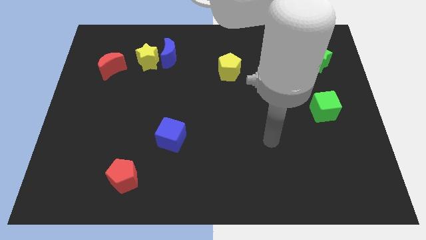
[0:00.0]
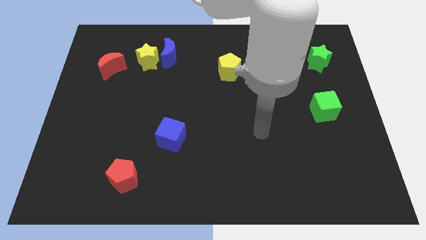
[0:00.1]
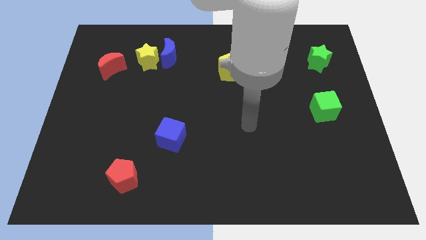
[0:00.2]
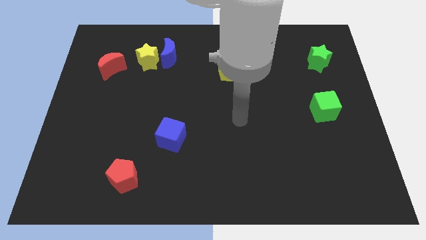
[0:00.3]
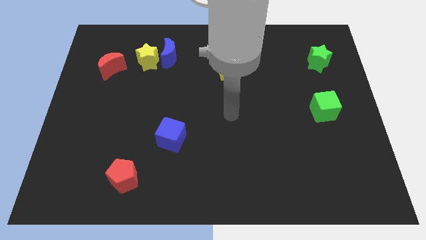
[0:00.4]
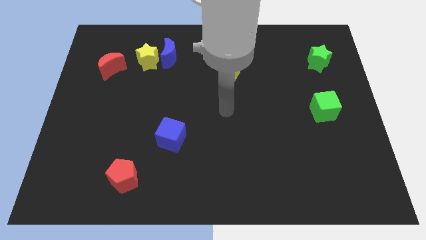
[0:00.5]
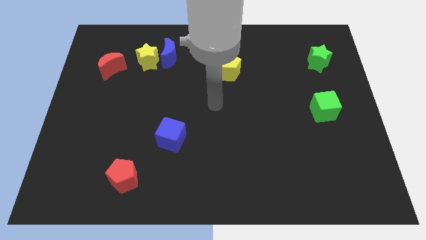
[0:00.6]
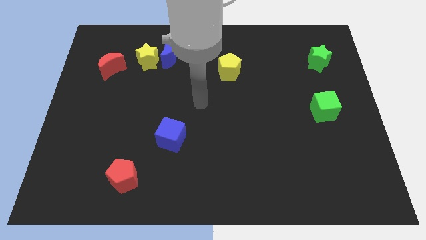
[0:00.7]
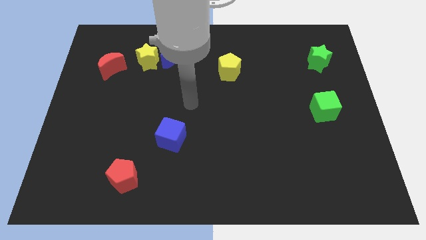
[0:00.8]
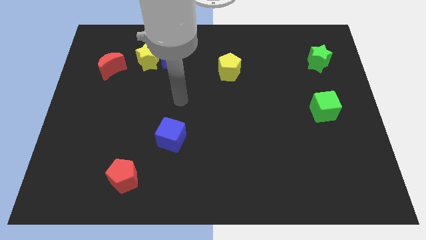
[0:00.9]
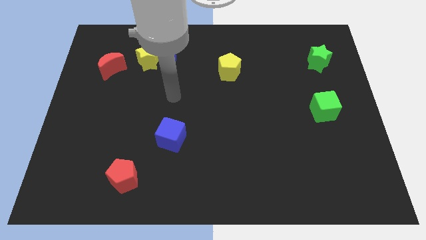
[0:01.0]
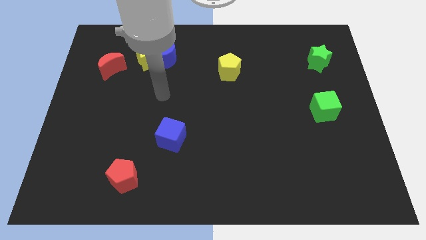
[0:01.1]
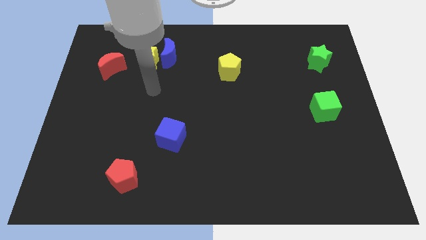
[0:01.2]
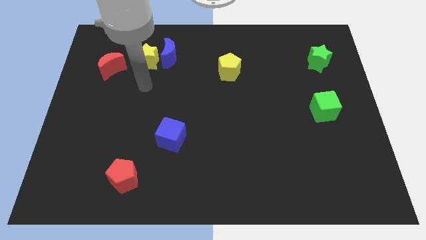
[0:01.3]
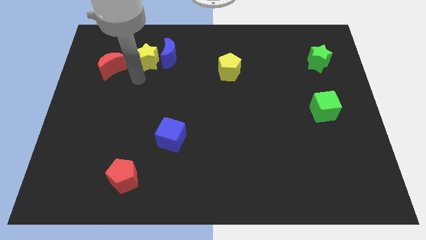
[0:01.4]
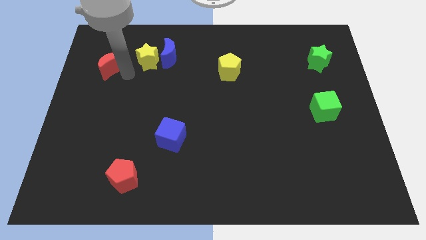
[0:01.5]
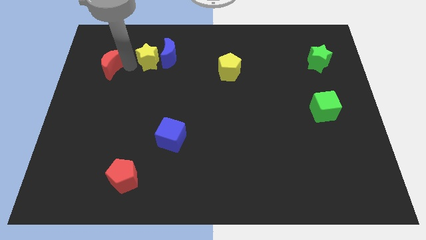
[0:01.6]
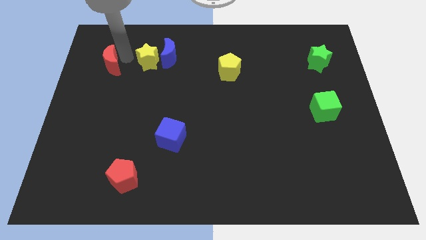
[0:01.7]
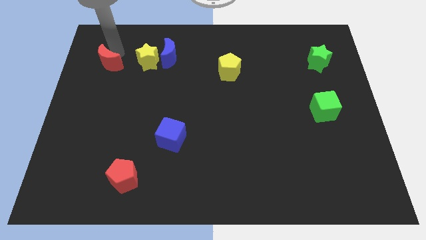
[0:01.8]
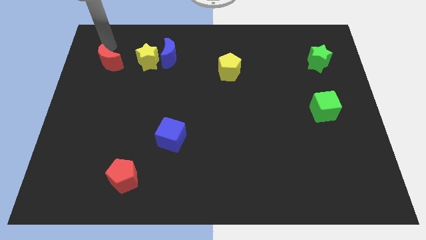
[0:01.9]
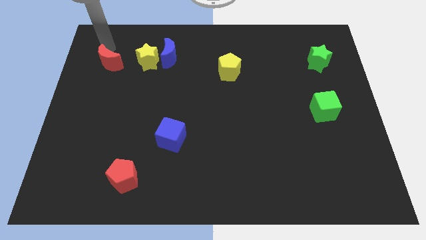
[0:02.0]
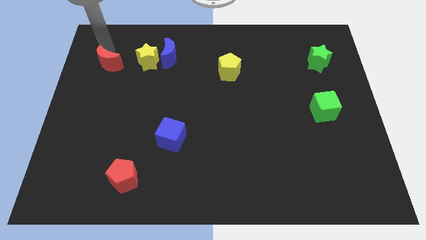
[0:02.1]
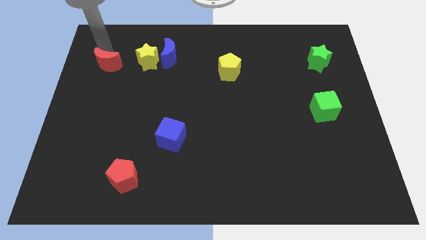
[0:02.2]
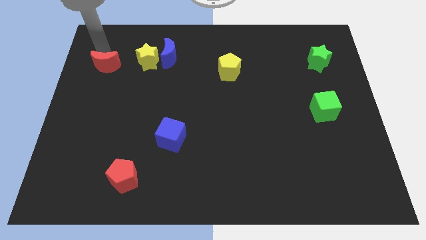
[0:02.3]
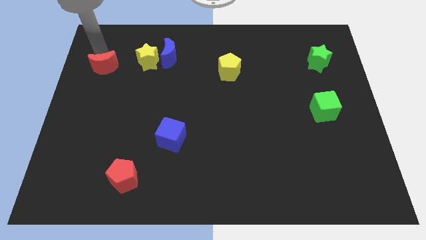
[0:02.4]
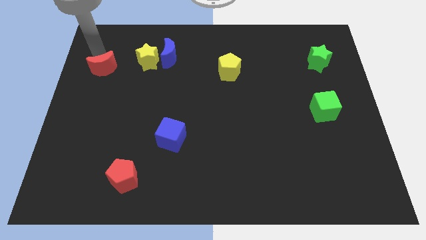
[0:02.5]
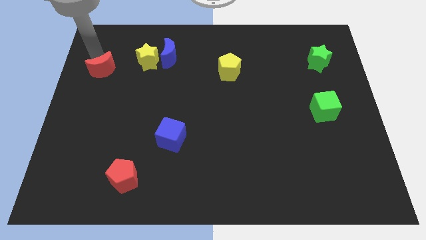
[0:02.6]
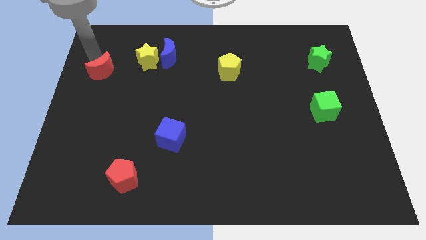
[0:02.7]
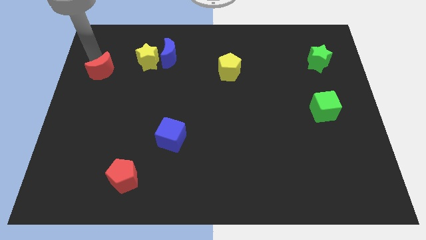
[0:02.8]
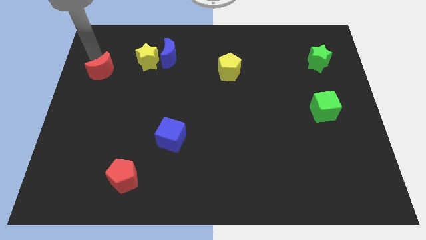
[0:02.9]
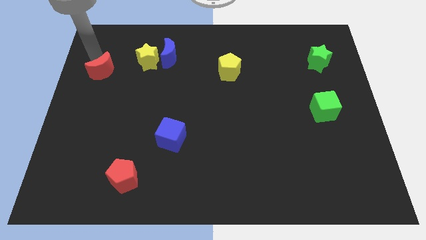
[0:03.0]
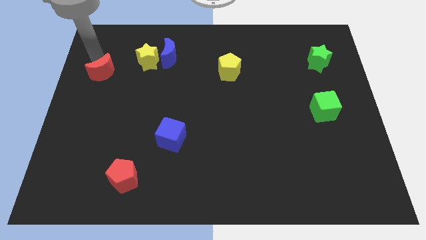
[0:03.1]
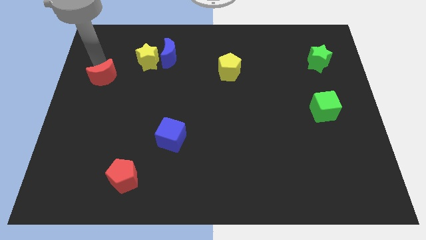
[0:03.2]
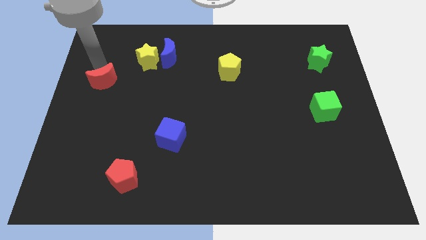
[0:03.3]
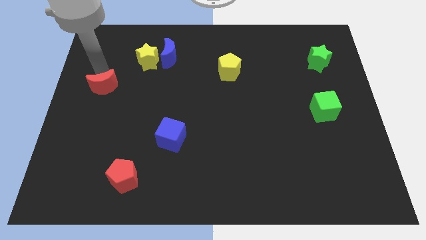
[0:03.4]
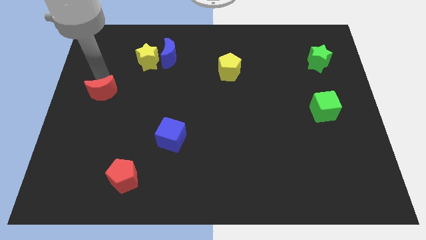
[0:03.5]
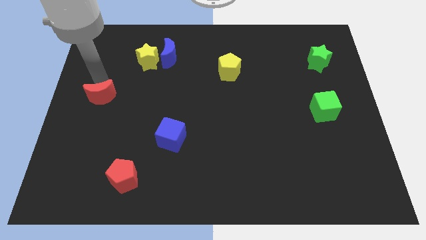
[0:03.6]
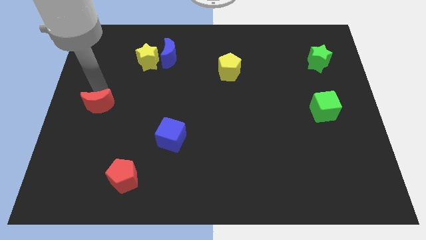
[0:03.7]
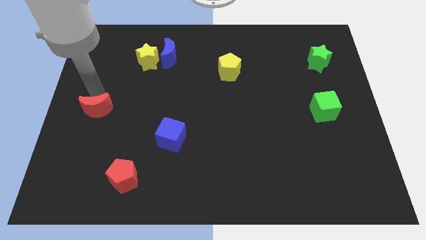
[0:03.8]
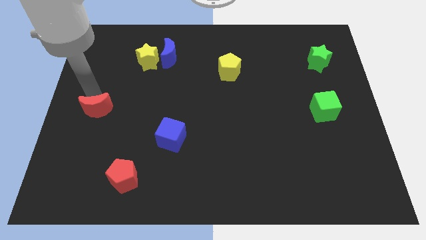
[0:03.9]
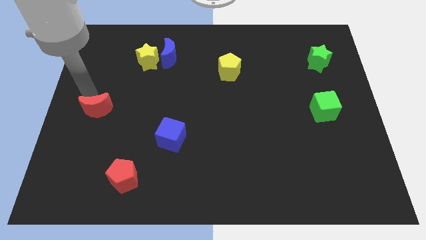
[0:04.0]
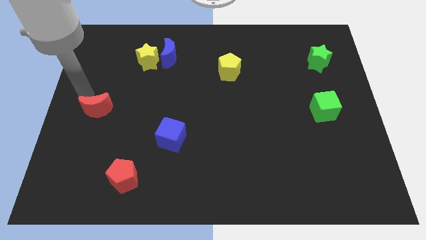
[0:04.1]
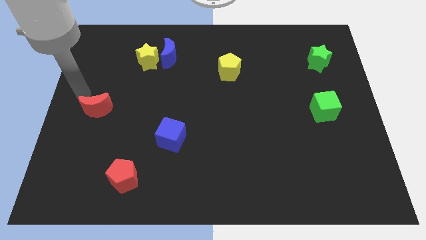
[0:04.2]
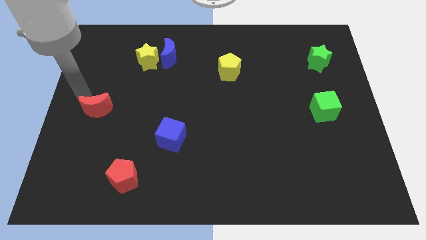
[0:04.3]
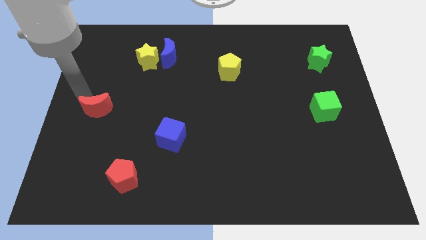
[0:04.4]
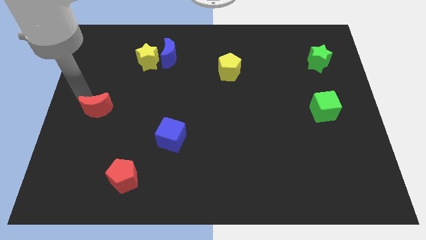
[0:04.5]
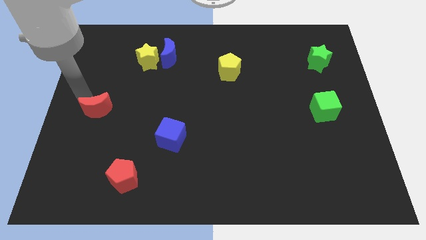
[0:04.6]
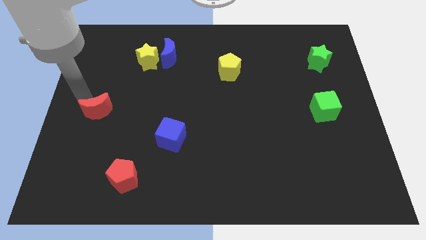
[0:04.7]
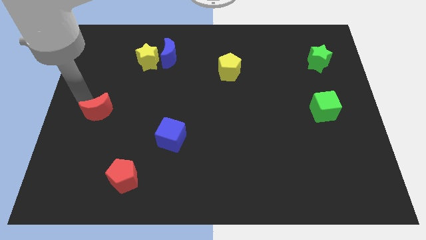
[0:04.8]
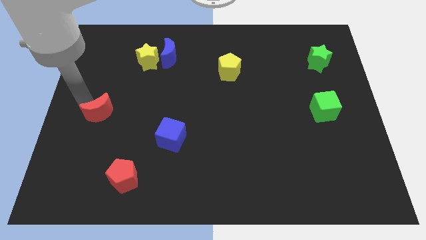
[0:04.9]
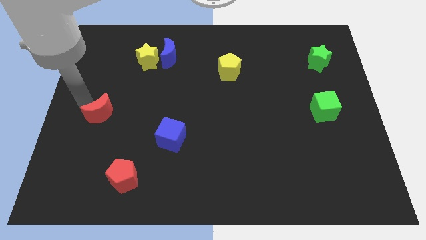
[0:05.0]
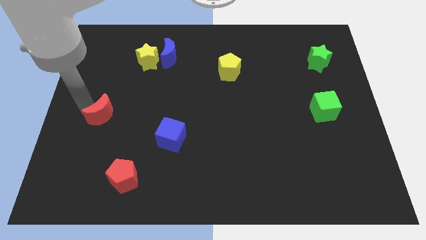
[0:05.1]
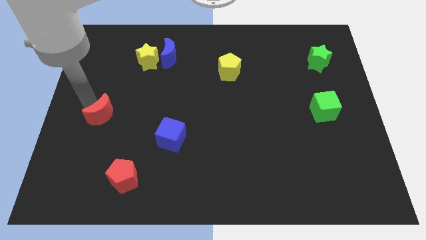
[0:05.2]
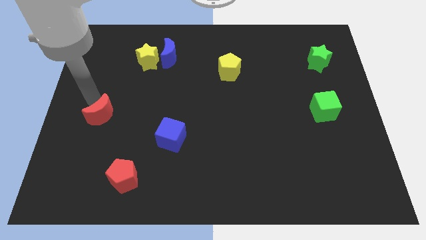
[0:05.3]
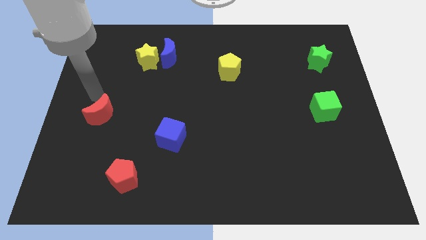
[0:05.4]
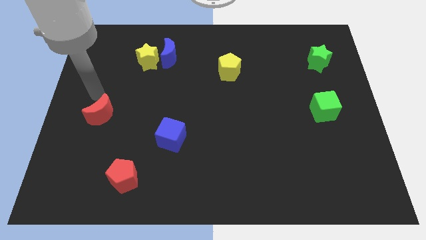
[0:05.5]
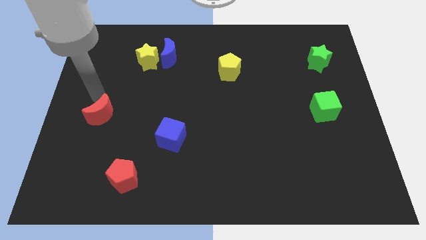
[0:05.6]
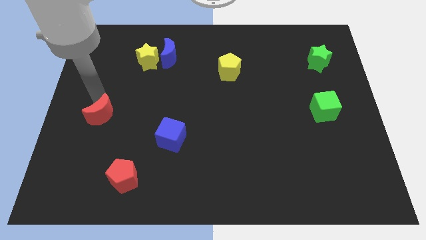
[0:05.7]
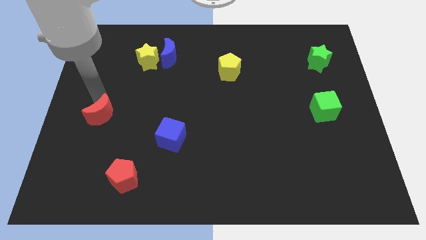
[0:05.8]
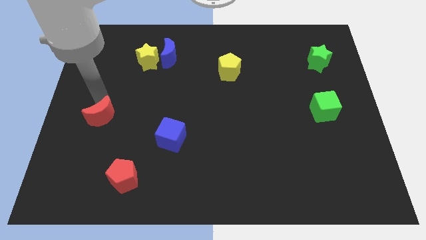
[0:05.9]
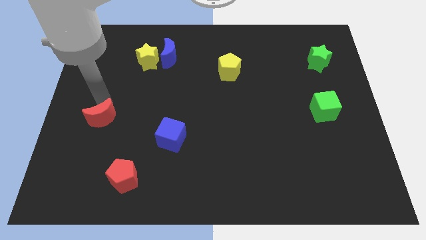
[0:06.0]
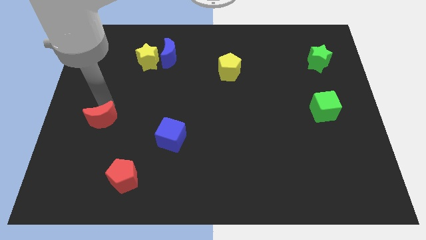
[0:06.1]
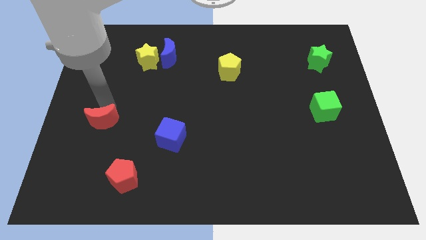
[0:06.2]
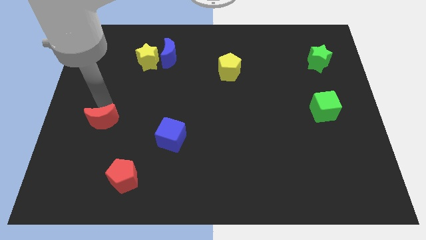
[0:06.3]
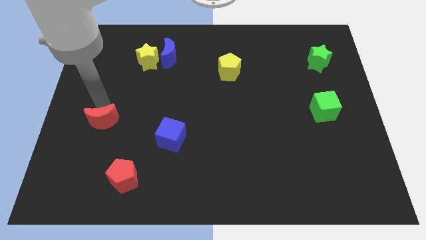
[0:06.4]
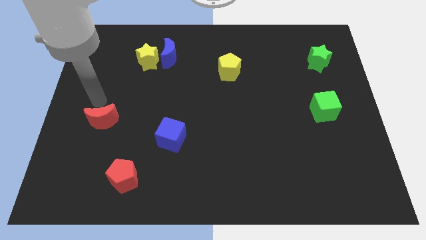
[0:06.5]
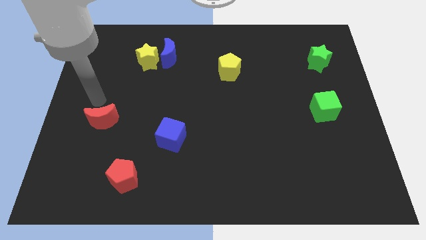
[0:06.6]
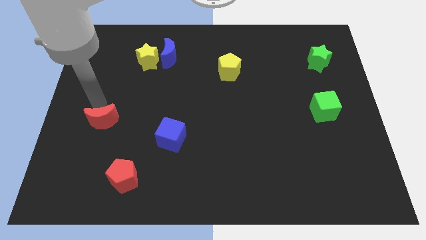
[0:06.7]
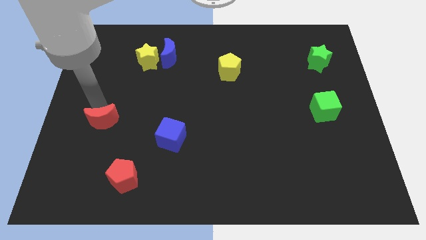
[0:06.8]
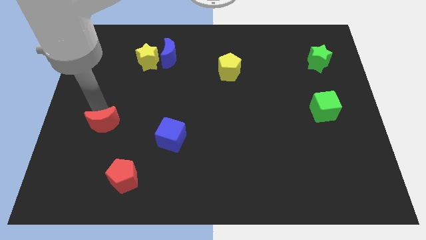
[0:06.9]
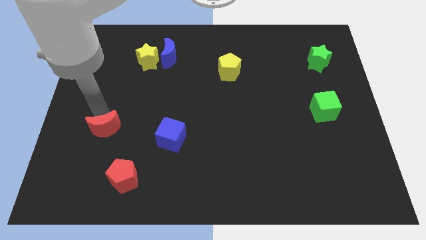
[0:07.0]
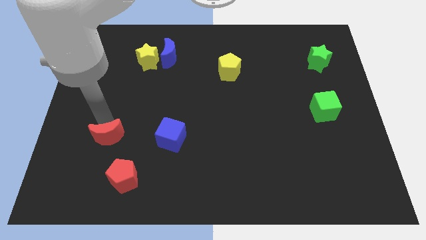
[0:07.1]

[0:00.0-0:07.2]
slide the red moon down

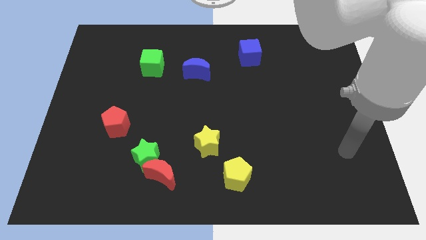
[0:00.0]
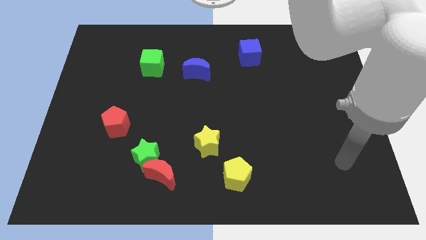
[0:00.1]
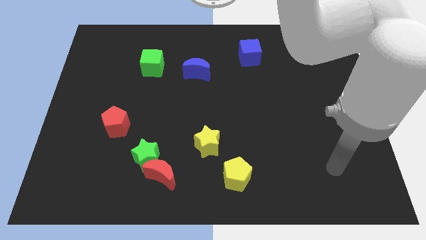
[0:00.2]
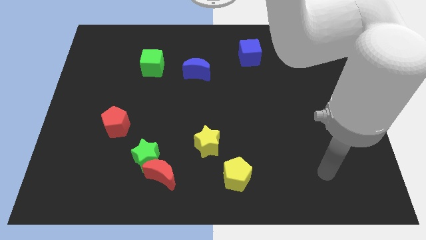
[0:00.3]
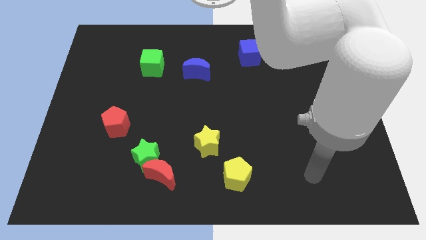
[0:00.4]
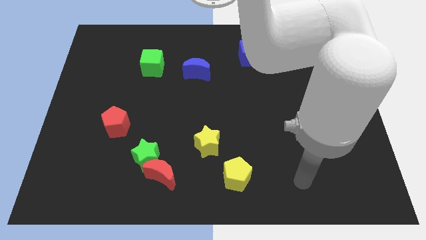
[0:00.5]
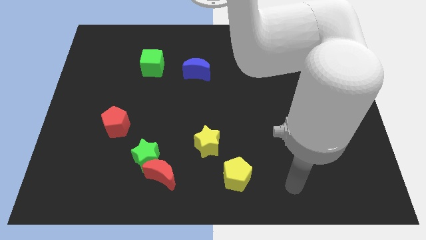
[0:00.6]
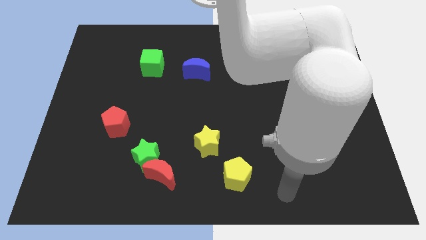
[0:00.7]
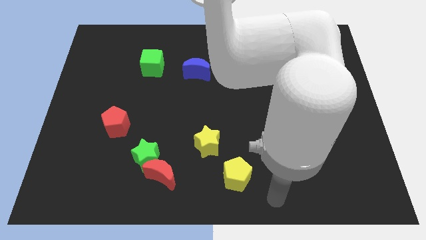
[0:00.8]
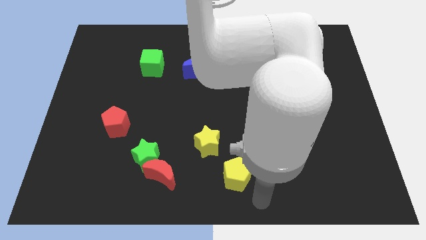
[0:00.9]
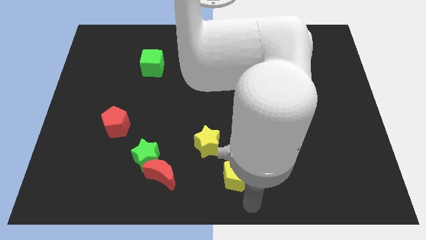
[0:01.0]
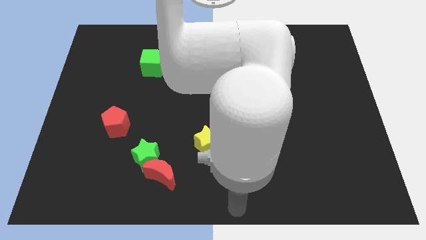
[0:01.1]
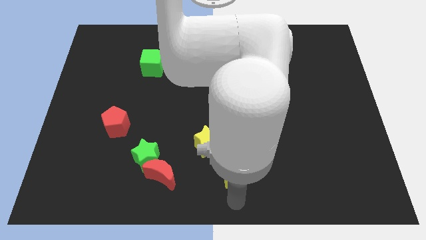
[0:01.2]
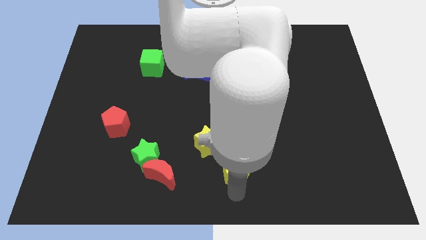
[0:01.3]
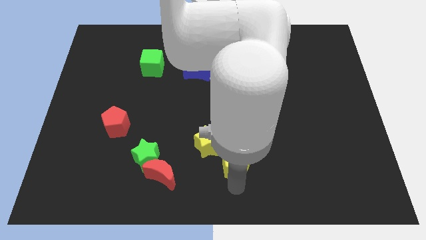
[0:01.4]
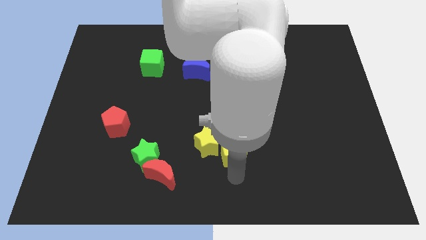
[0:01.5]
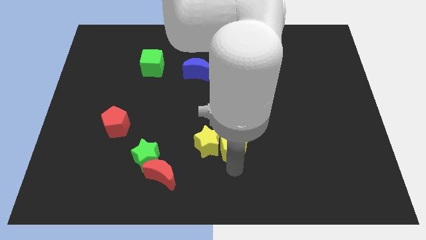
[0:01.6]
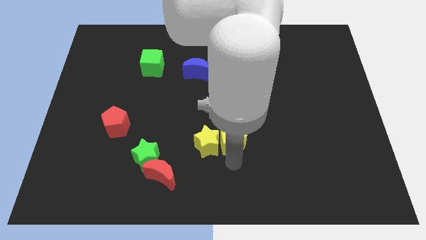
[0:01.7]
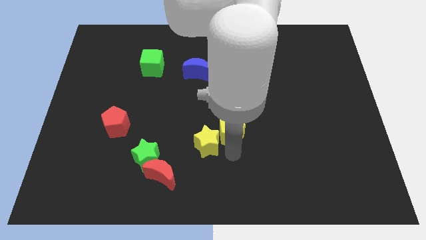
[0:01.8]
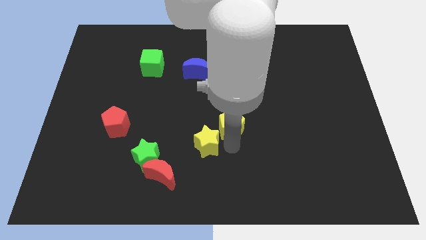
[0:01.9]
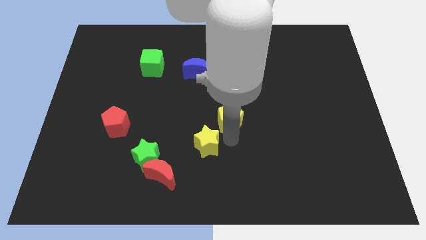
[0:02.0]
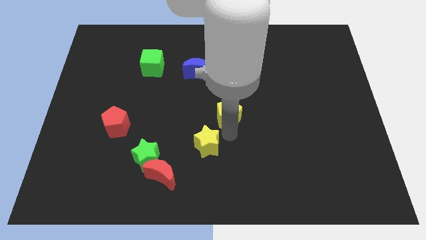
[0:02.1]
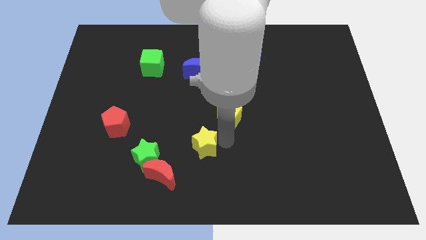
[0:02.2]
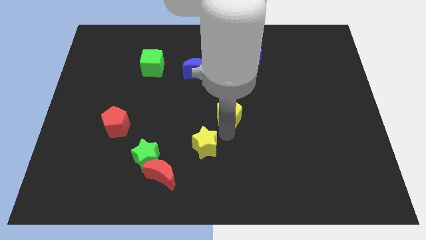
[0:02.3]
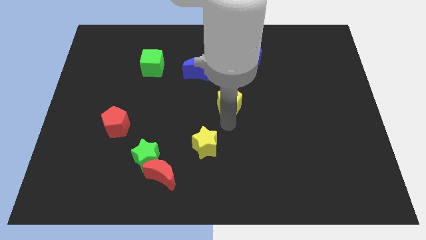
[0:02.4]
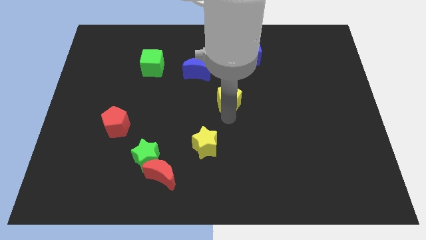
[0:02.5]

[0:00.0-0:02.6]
push the yellow pentagon upwards
